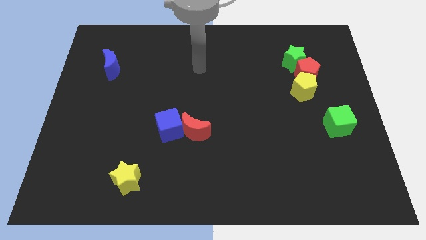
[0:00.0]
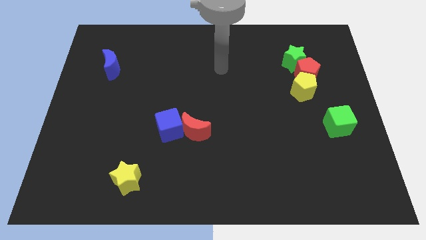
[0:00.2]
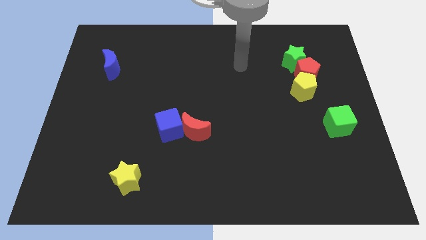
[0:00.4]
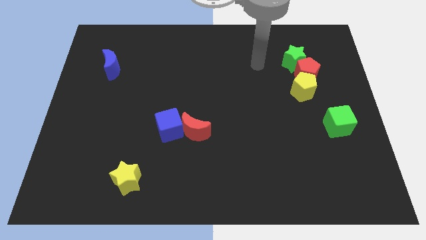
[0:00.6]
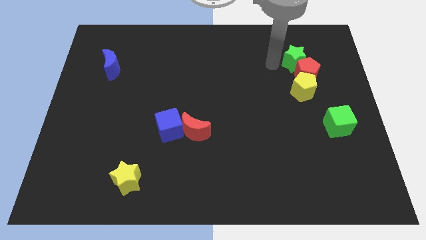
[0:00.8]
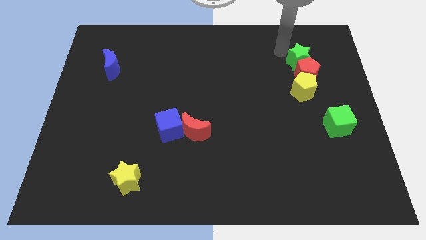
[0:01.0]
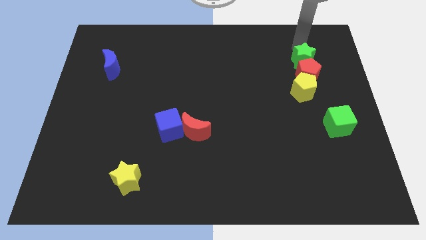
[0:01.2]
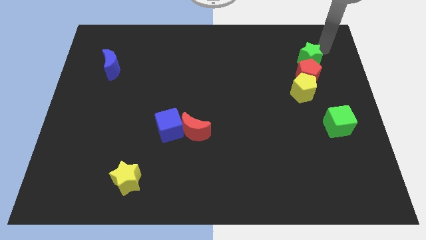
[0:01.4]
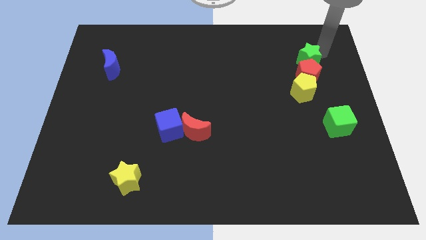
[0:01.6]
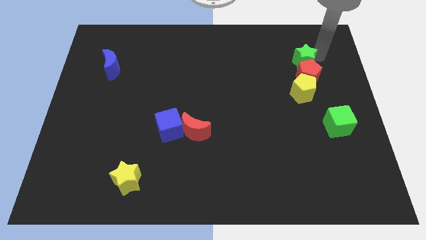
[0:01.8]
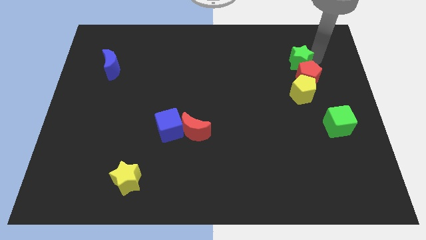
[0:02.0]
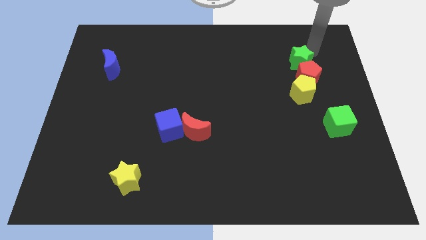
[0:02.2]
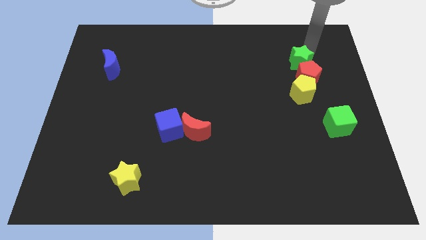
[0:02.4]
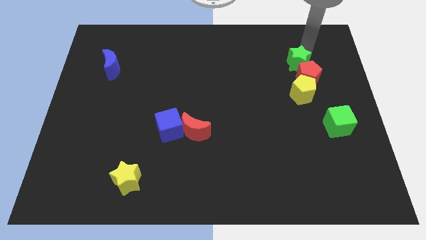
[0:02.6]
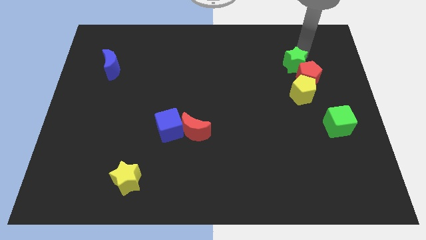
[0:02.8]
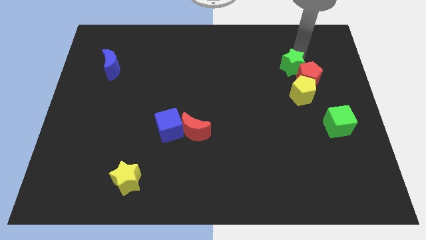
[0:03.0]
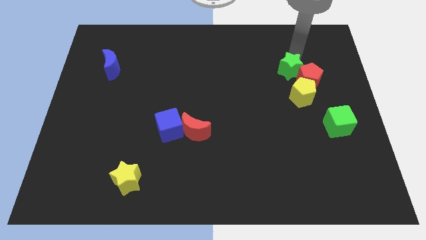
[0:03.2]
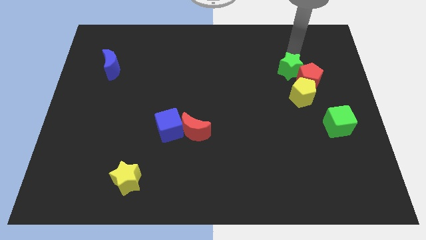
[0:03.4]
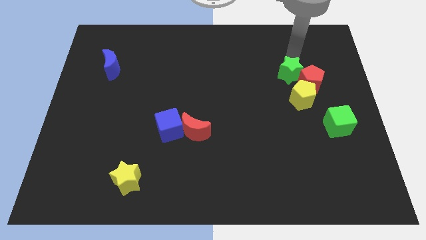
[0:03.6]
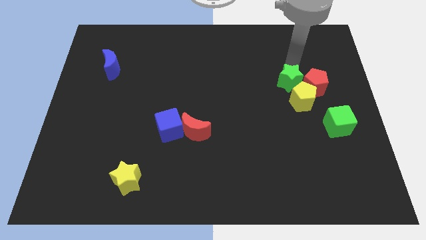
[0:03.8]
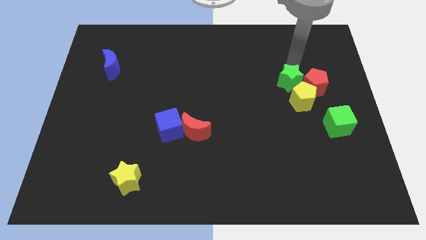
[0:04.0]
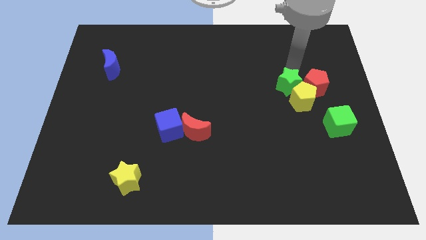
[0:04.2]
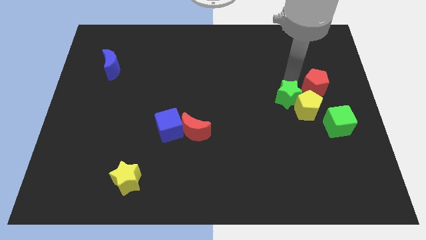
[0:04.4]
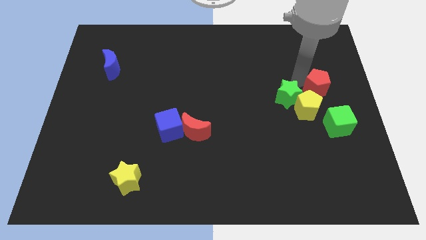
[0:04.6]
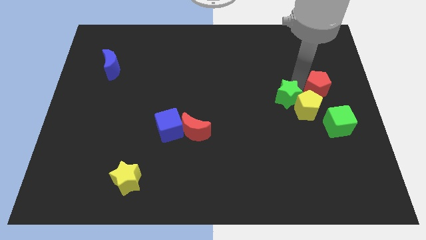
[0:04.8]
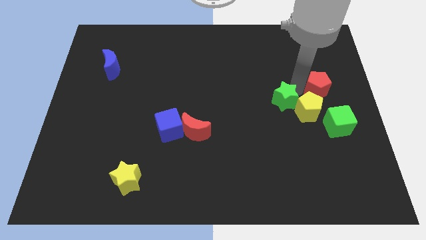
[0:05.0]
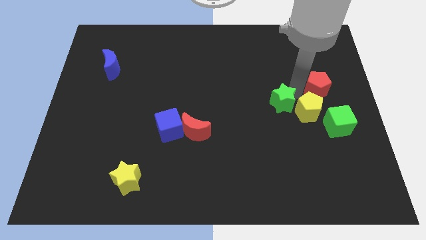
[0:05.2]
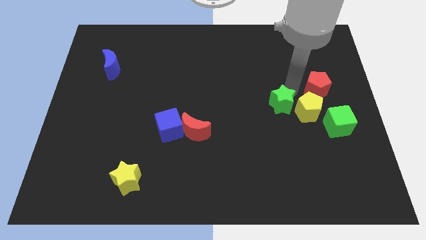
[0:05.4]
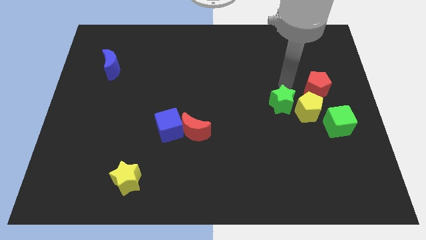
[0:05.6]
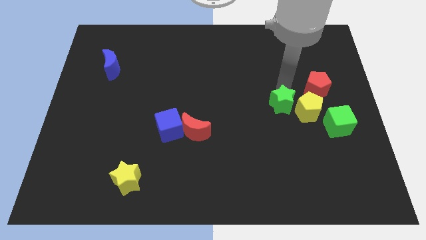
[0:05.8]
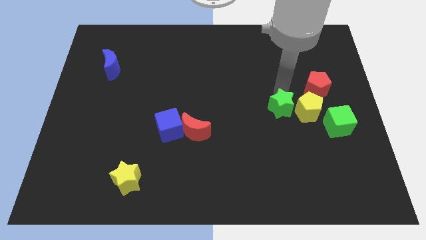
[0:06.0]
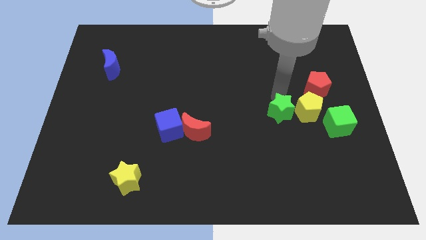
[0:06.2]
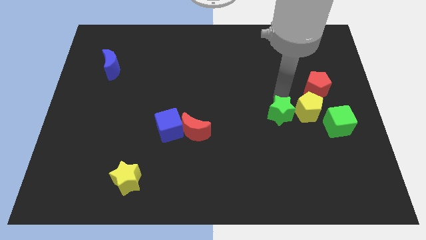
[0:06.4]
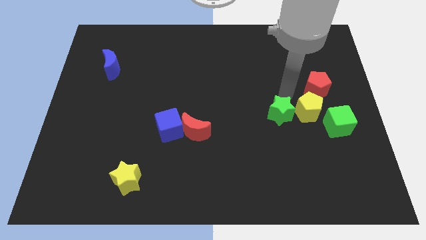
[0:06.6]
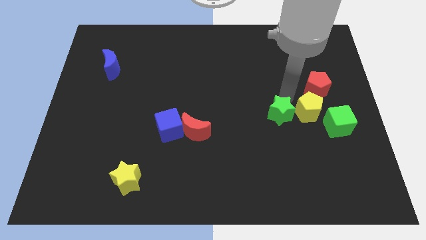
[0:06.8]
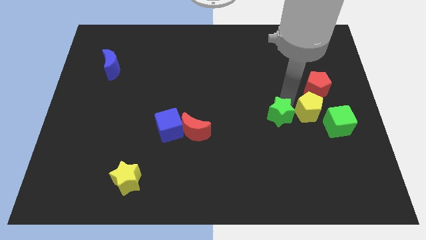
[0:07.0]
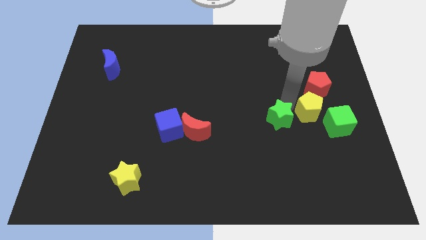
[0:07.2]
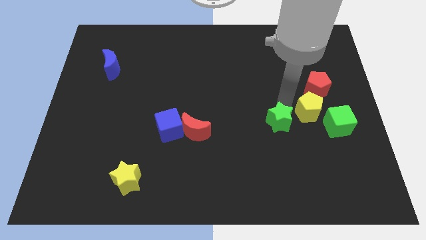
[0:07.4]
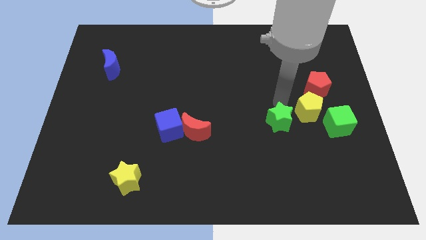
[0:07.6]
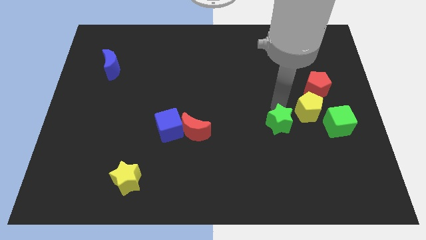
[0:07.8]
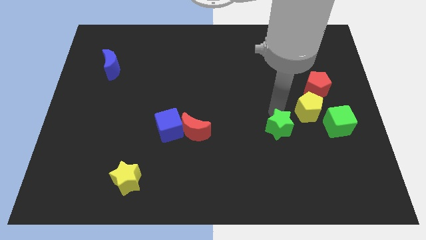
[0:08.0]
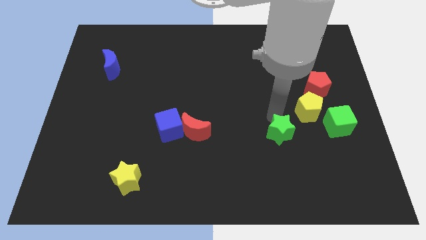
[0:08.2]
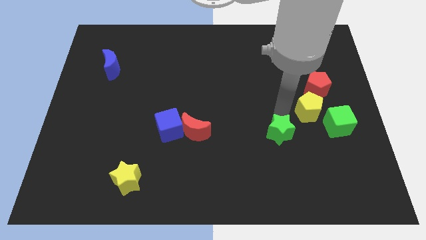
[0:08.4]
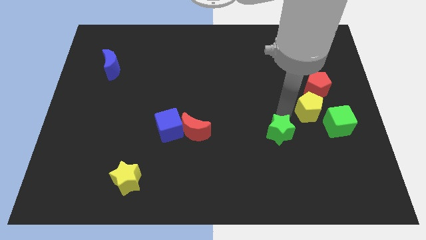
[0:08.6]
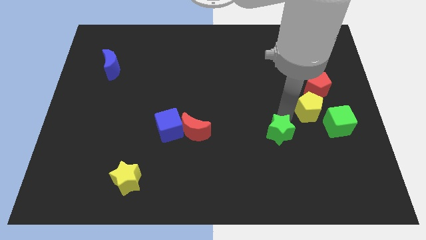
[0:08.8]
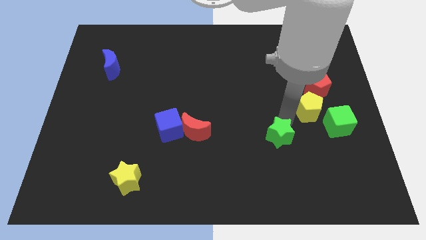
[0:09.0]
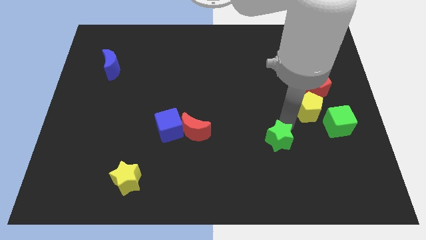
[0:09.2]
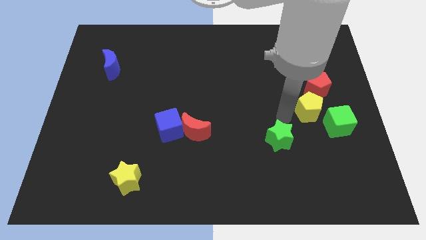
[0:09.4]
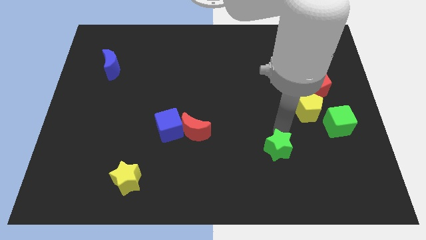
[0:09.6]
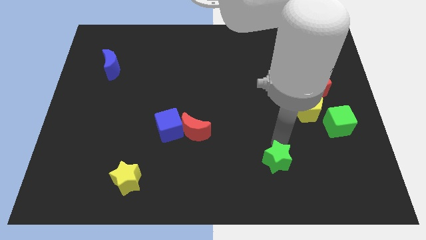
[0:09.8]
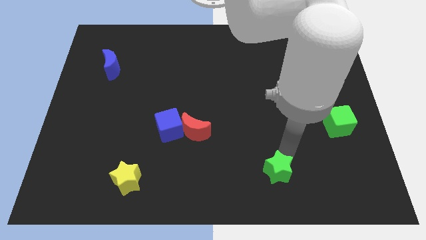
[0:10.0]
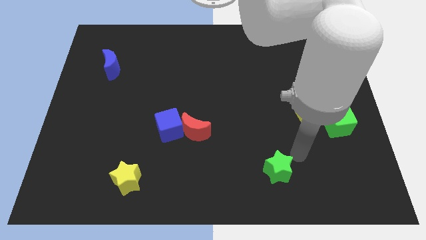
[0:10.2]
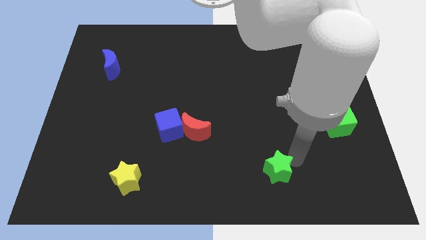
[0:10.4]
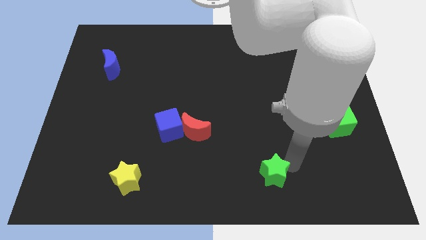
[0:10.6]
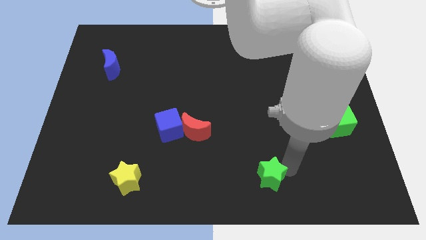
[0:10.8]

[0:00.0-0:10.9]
put the green star to the bottom

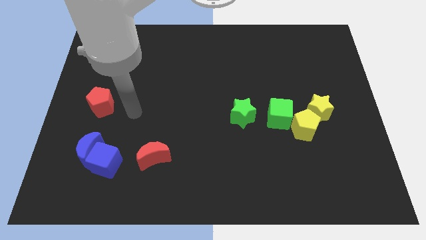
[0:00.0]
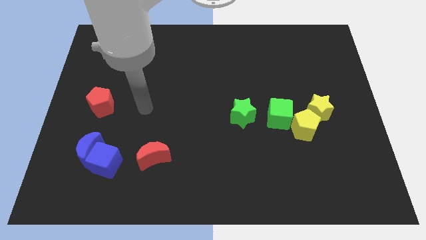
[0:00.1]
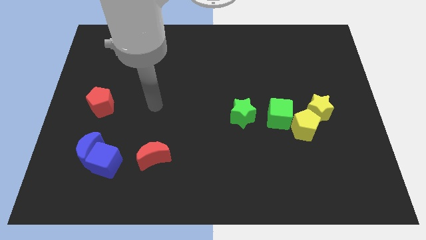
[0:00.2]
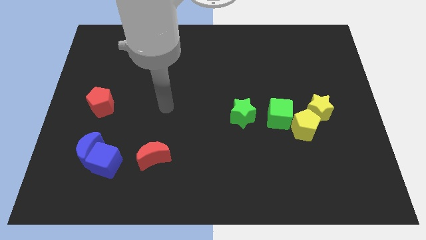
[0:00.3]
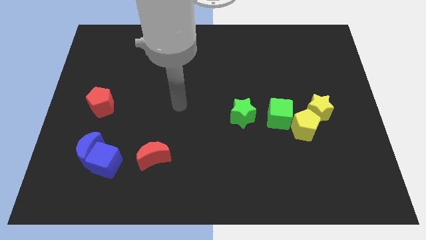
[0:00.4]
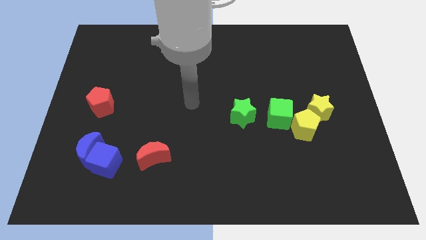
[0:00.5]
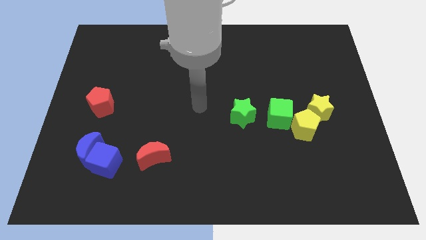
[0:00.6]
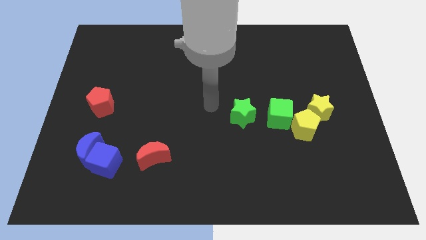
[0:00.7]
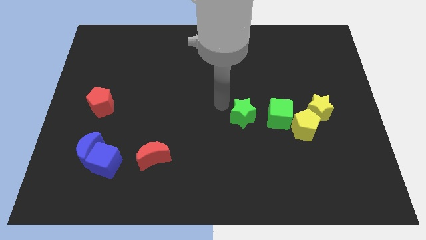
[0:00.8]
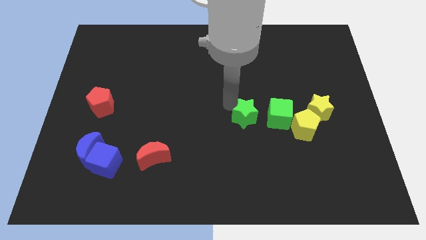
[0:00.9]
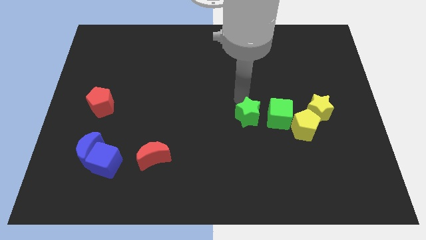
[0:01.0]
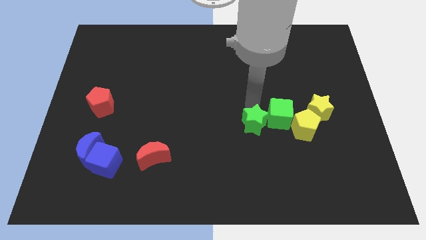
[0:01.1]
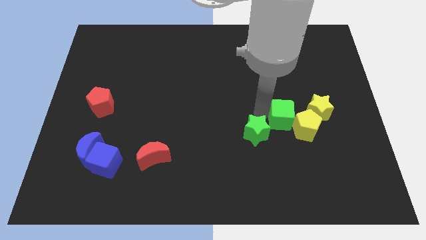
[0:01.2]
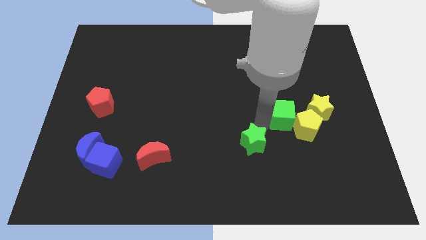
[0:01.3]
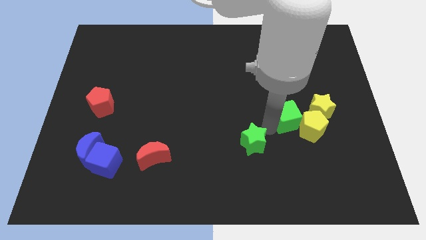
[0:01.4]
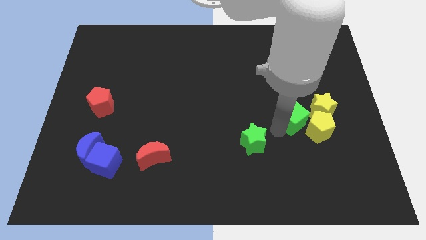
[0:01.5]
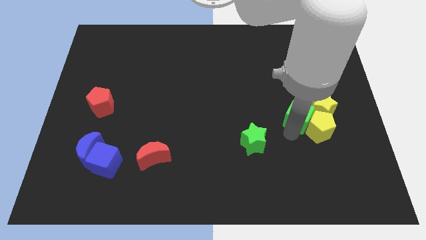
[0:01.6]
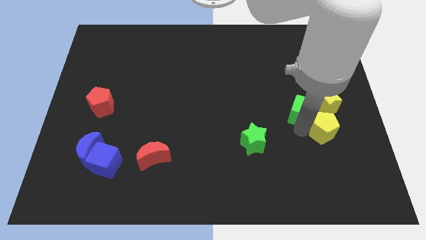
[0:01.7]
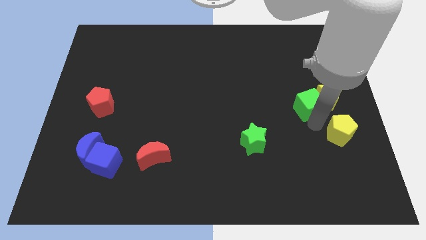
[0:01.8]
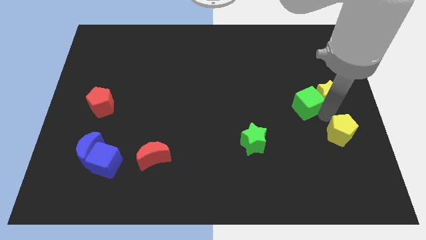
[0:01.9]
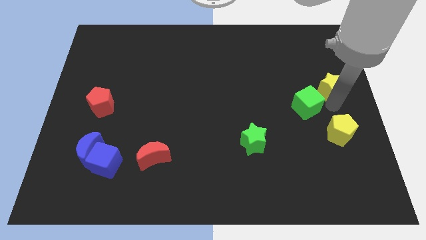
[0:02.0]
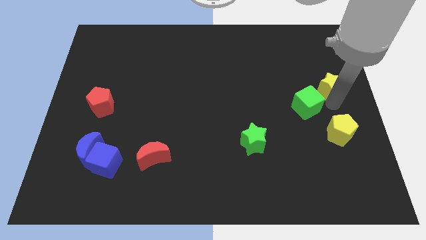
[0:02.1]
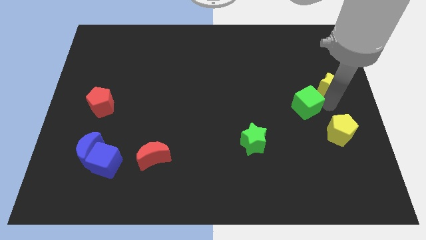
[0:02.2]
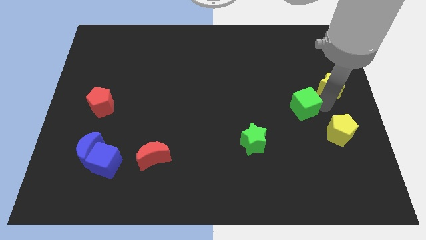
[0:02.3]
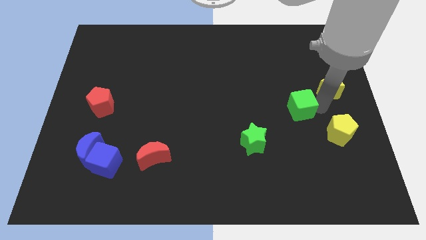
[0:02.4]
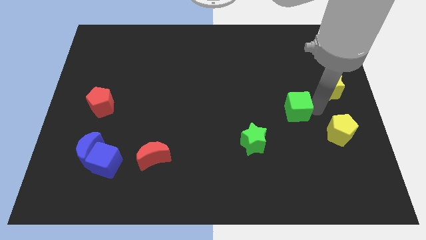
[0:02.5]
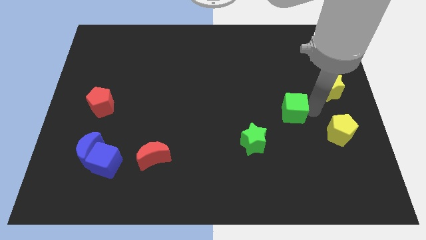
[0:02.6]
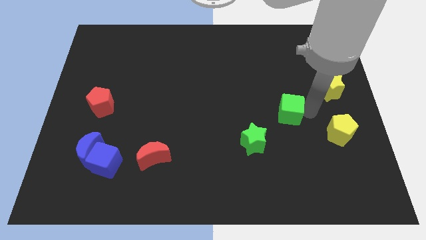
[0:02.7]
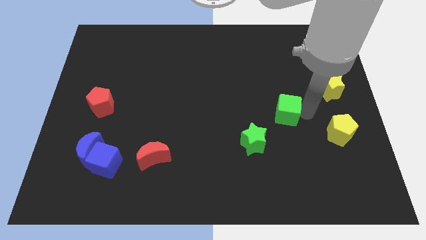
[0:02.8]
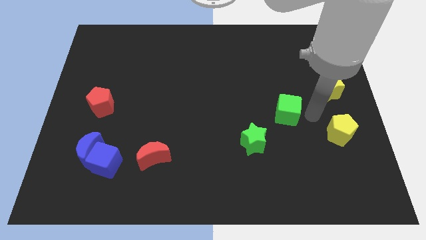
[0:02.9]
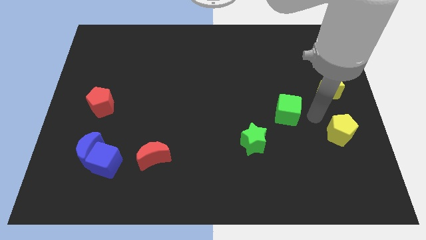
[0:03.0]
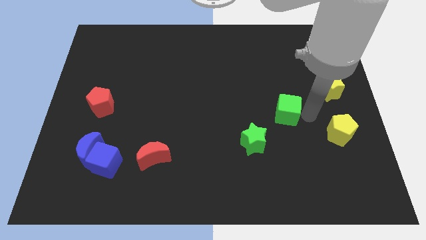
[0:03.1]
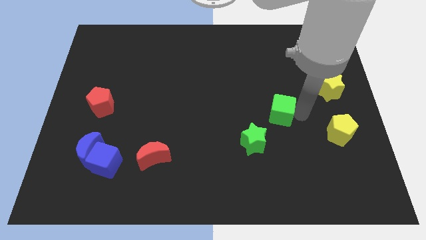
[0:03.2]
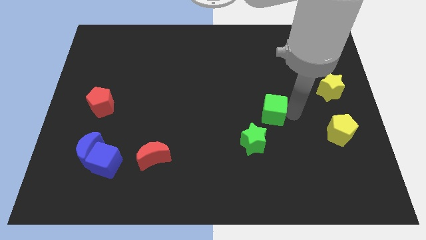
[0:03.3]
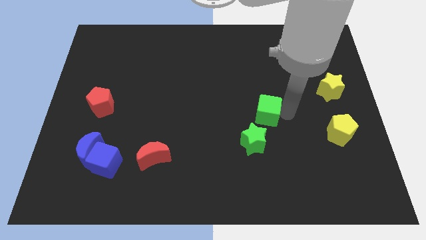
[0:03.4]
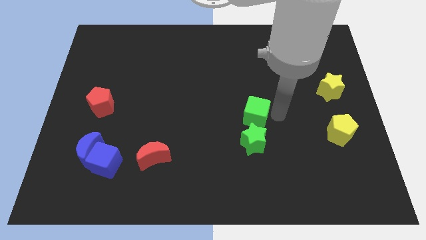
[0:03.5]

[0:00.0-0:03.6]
push the green cube to the center of the board
